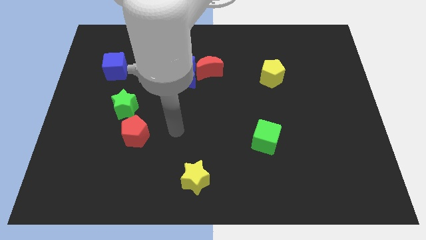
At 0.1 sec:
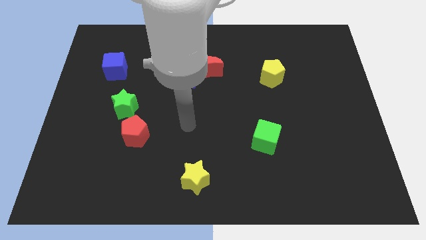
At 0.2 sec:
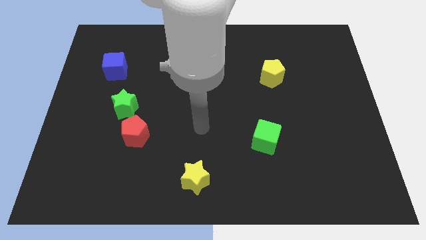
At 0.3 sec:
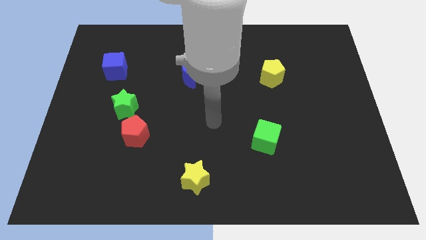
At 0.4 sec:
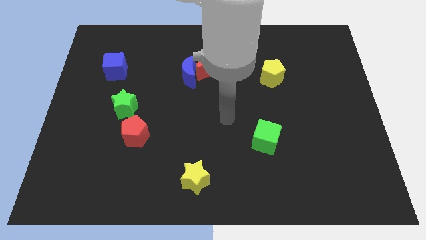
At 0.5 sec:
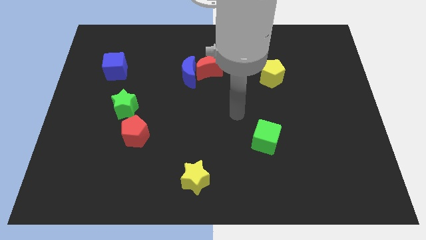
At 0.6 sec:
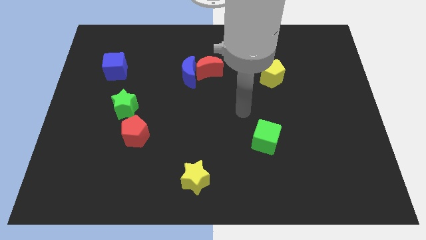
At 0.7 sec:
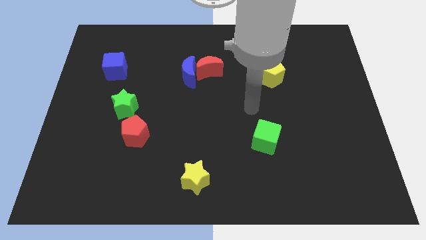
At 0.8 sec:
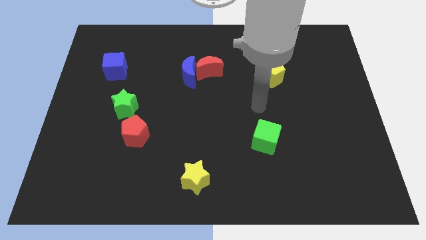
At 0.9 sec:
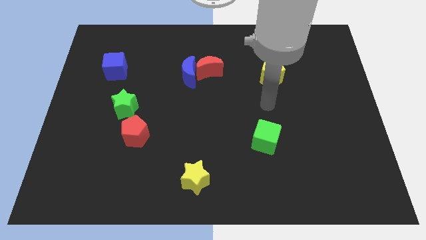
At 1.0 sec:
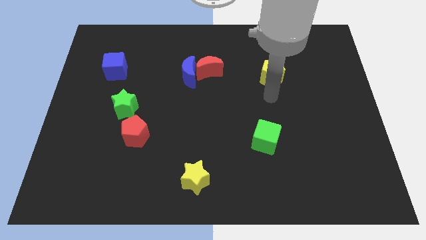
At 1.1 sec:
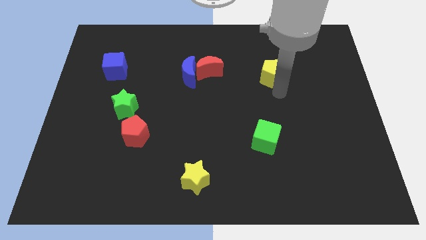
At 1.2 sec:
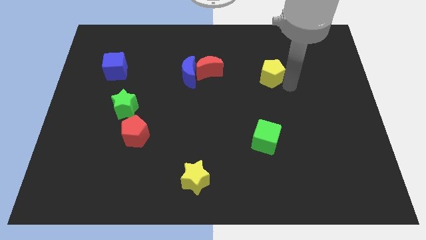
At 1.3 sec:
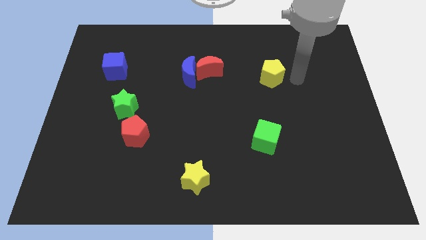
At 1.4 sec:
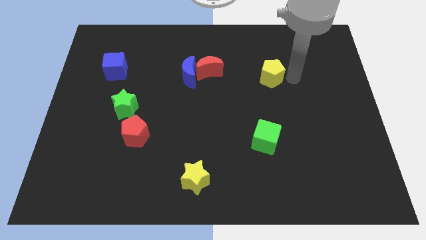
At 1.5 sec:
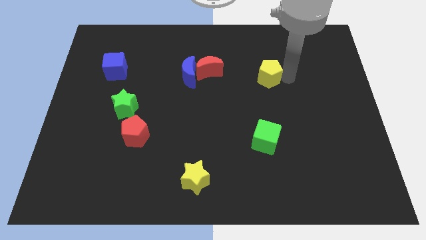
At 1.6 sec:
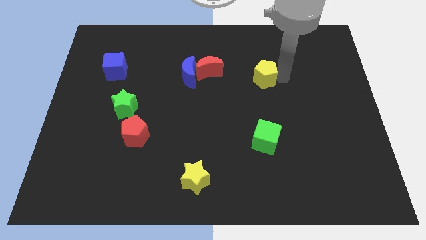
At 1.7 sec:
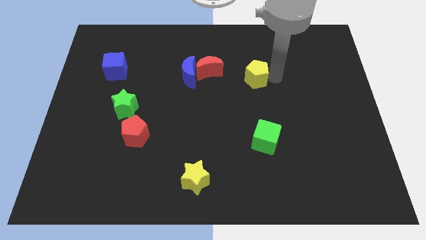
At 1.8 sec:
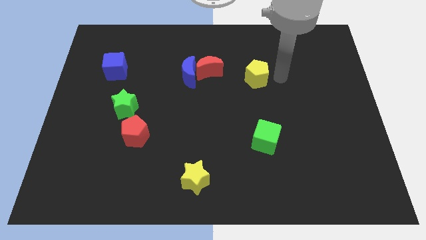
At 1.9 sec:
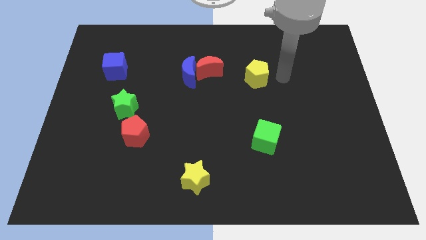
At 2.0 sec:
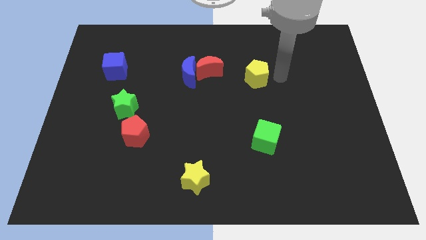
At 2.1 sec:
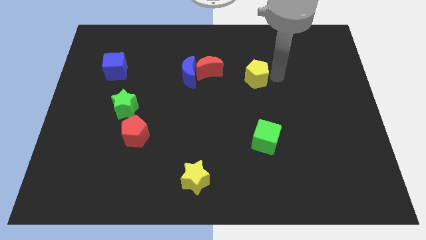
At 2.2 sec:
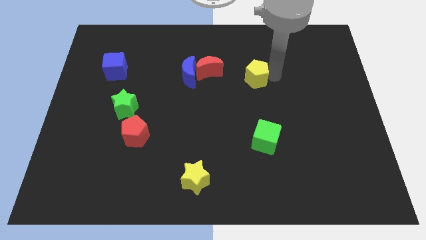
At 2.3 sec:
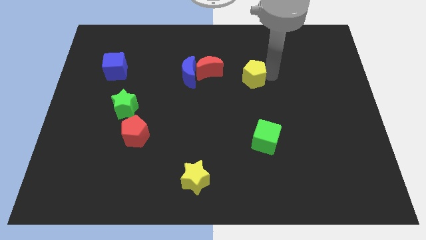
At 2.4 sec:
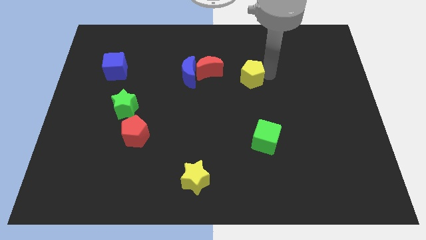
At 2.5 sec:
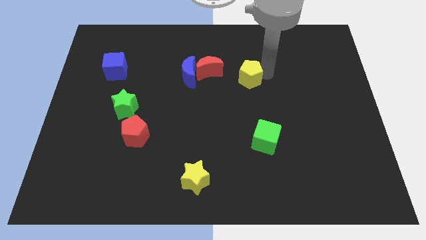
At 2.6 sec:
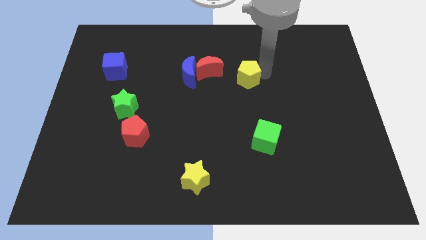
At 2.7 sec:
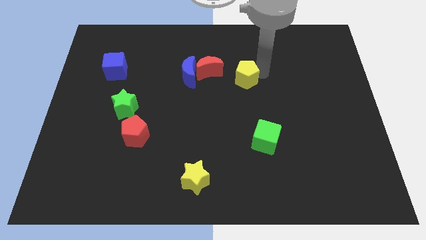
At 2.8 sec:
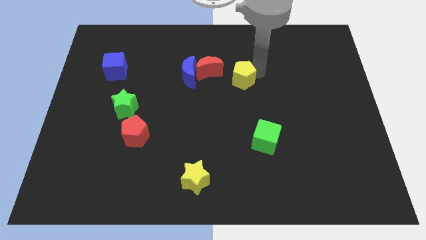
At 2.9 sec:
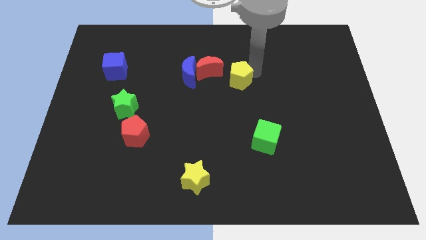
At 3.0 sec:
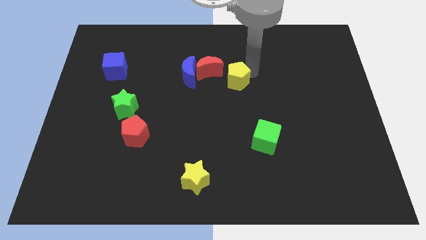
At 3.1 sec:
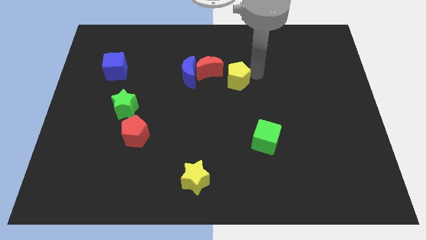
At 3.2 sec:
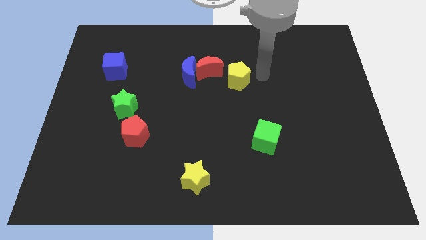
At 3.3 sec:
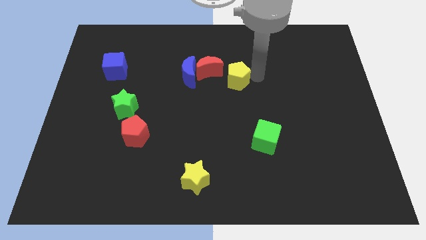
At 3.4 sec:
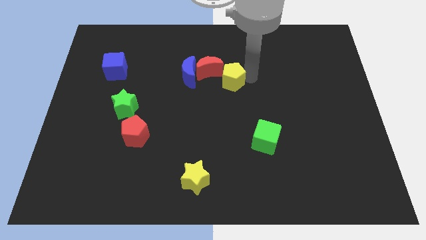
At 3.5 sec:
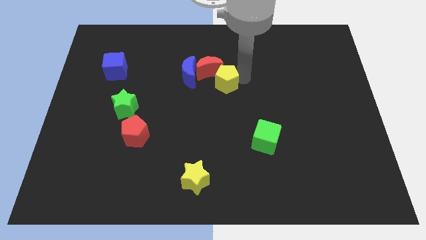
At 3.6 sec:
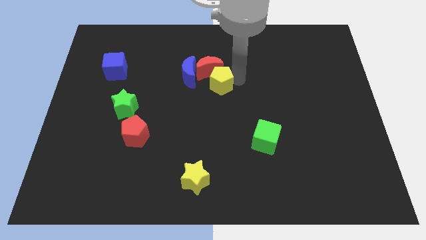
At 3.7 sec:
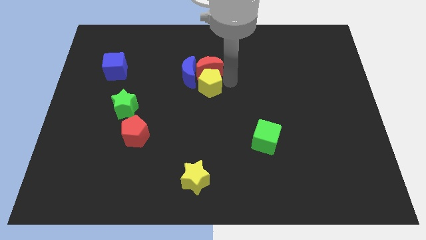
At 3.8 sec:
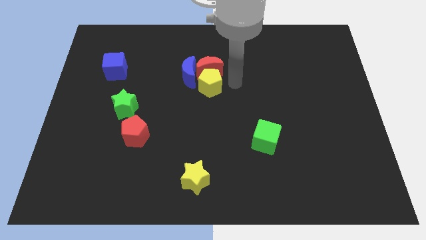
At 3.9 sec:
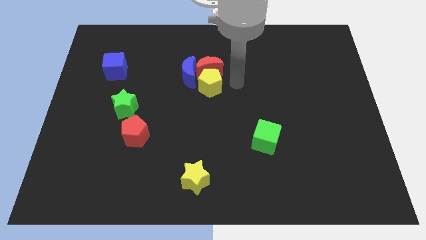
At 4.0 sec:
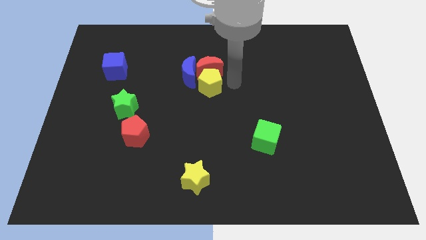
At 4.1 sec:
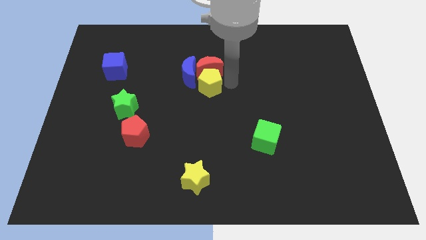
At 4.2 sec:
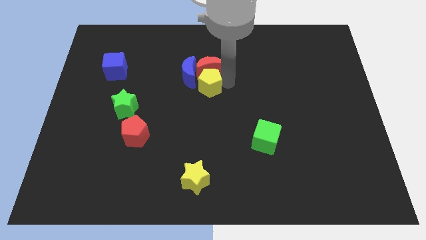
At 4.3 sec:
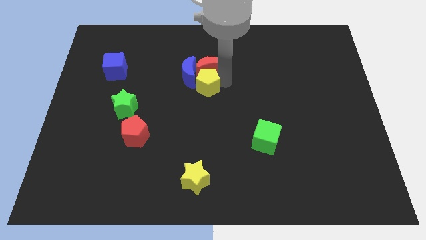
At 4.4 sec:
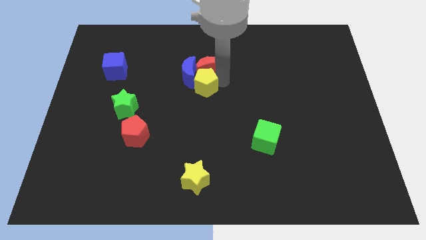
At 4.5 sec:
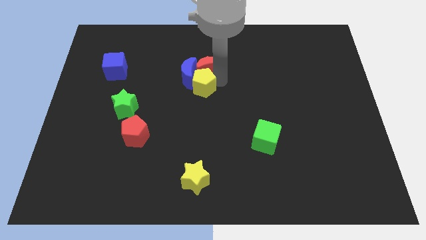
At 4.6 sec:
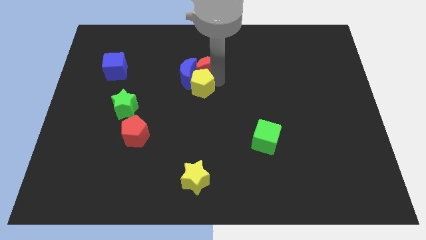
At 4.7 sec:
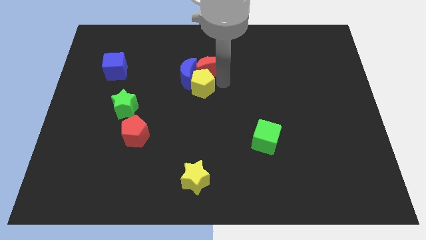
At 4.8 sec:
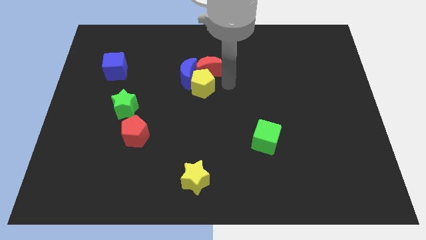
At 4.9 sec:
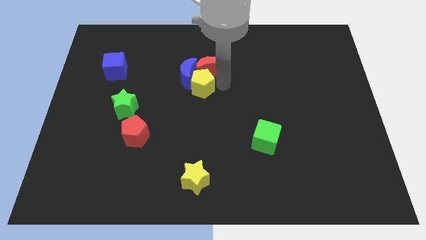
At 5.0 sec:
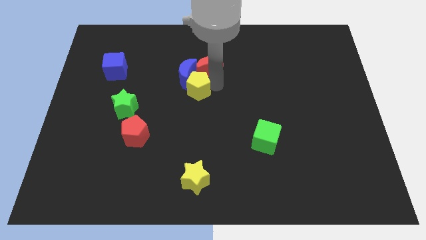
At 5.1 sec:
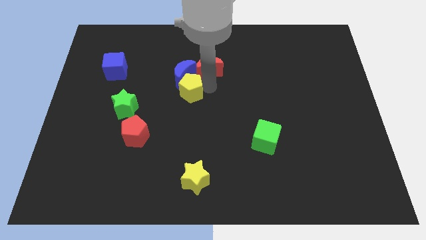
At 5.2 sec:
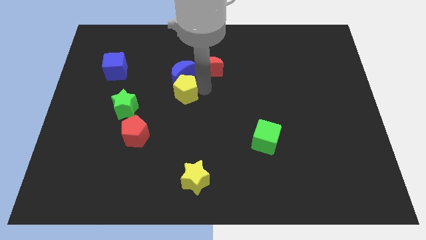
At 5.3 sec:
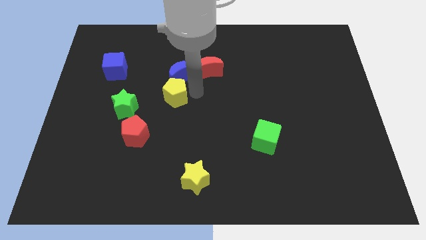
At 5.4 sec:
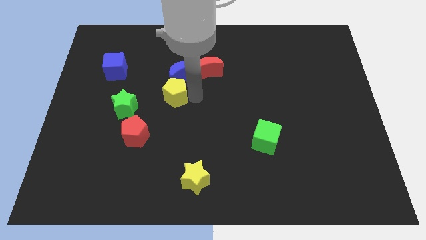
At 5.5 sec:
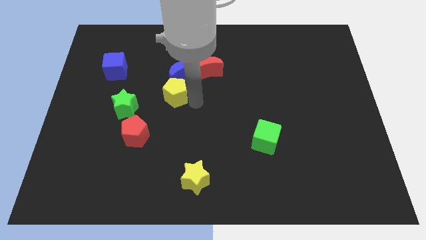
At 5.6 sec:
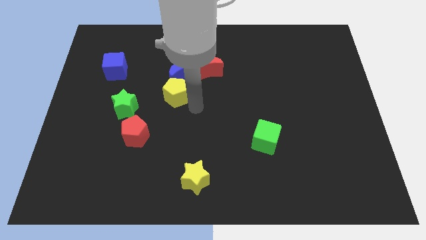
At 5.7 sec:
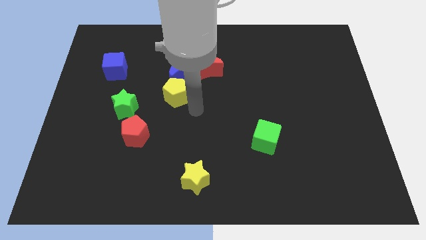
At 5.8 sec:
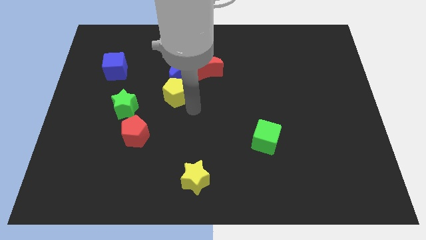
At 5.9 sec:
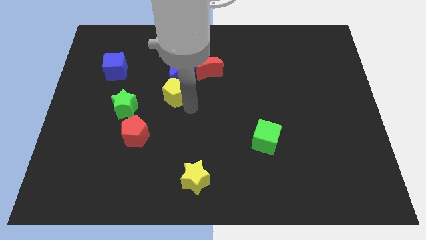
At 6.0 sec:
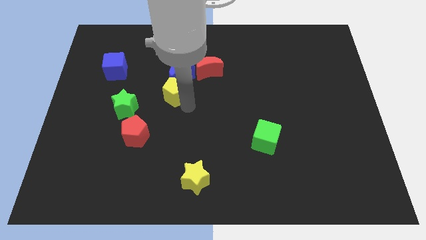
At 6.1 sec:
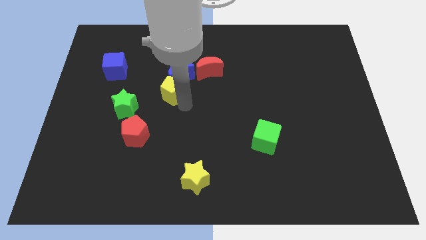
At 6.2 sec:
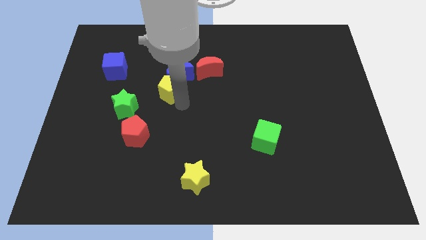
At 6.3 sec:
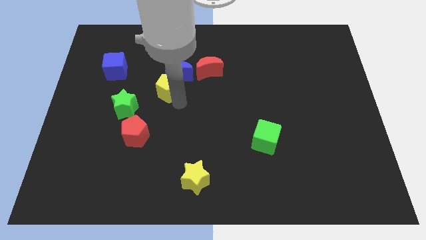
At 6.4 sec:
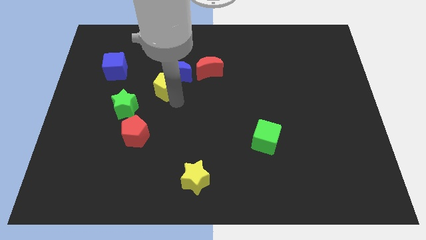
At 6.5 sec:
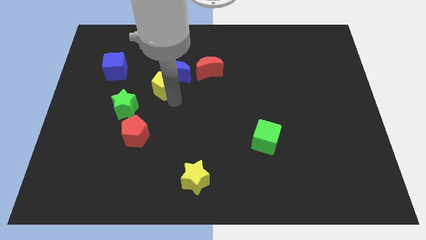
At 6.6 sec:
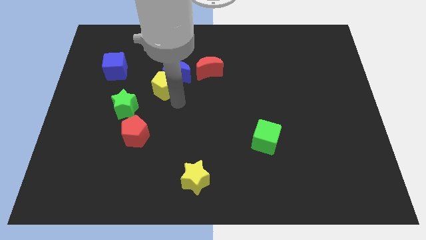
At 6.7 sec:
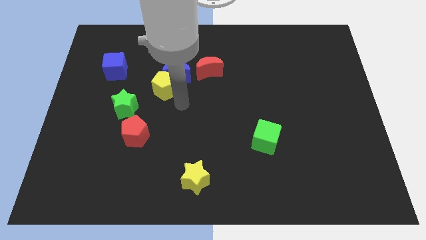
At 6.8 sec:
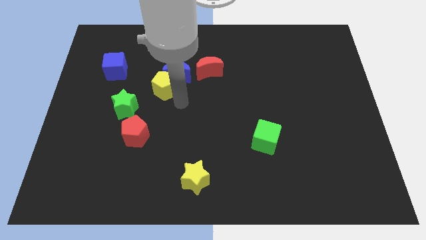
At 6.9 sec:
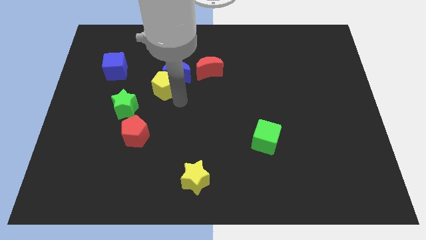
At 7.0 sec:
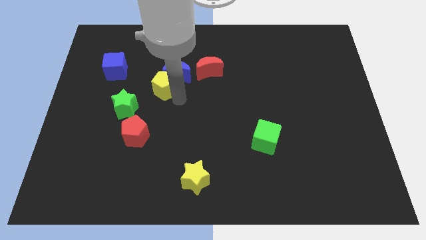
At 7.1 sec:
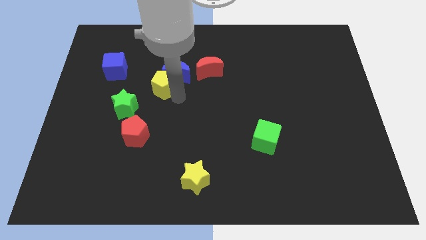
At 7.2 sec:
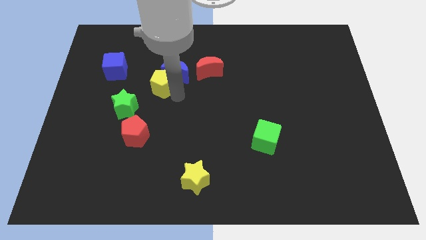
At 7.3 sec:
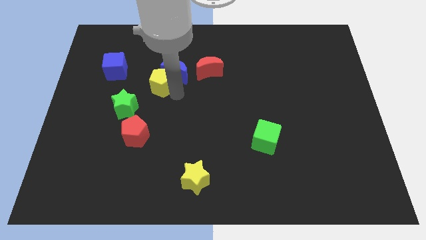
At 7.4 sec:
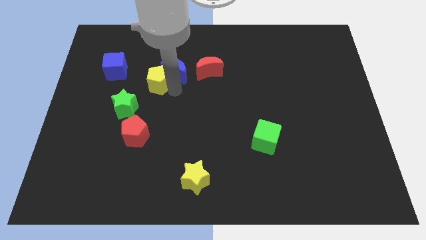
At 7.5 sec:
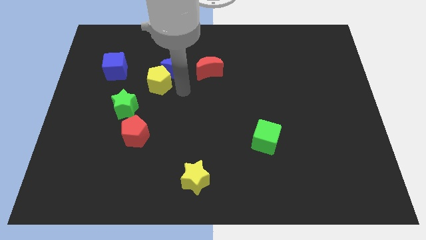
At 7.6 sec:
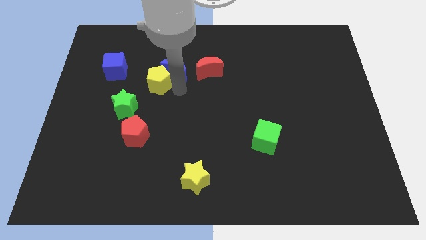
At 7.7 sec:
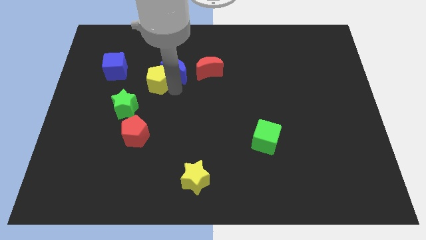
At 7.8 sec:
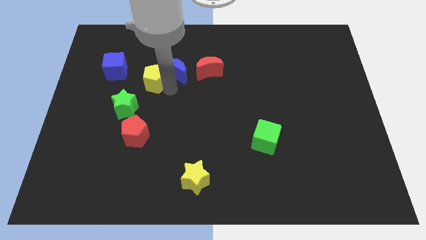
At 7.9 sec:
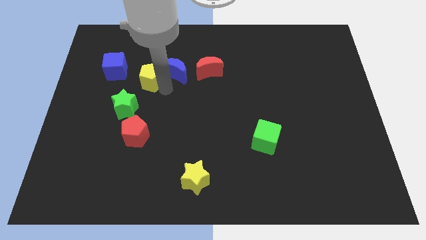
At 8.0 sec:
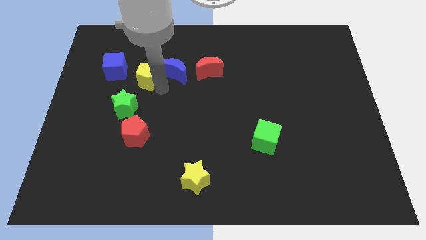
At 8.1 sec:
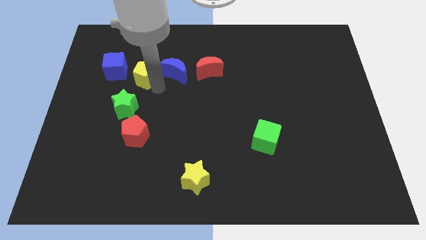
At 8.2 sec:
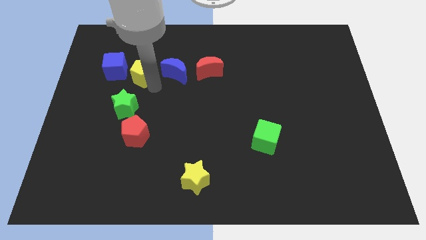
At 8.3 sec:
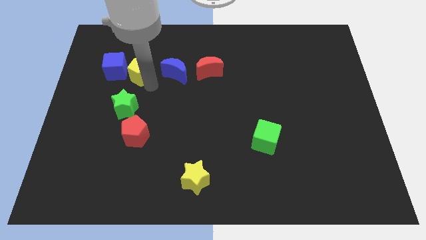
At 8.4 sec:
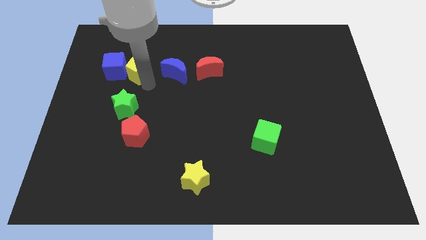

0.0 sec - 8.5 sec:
push the yellow pentagon to the blue cube
